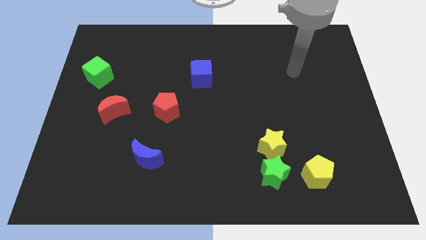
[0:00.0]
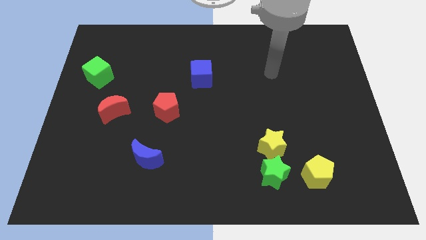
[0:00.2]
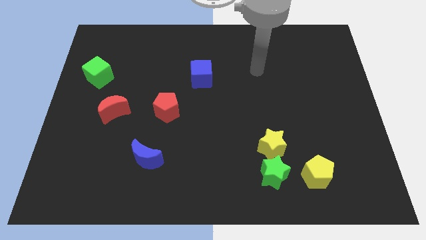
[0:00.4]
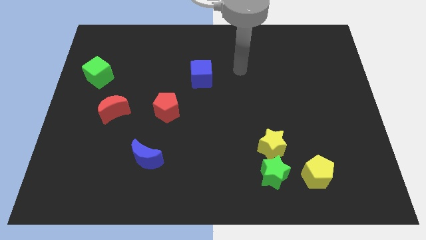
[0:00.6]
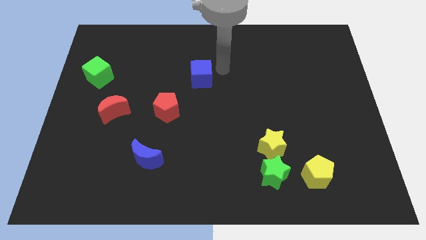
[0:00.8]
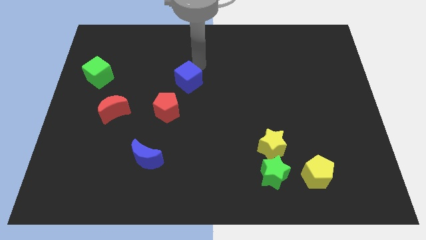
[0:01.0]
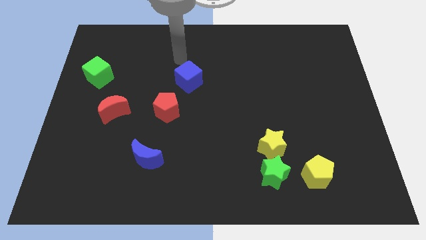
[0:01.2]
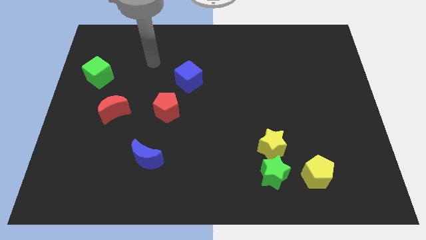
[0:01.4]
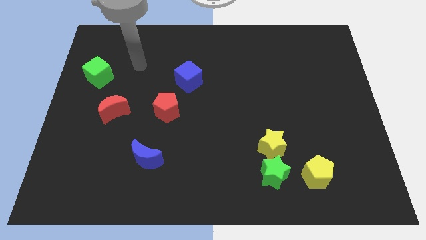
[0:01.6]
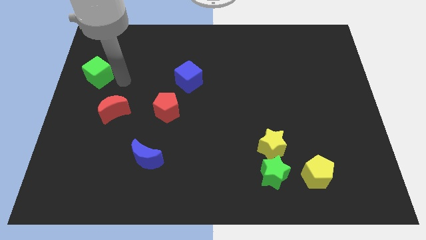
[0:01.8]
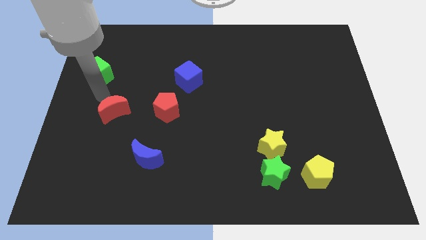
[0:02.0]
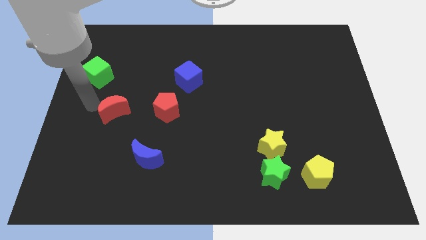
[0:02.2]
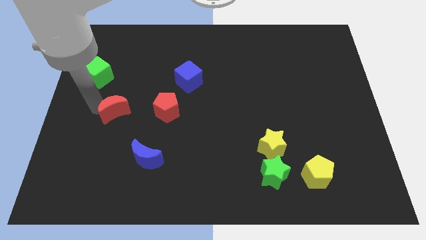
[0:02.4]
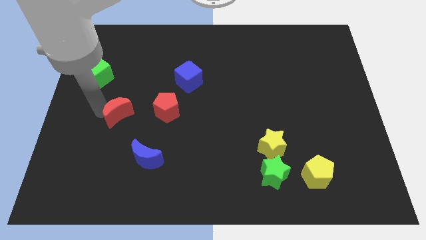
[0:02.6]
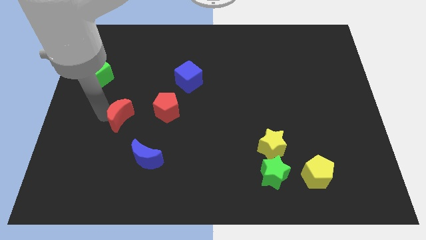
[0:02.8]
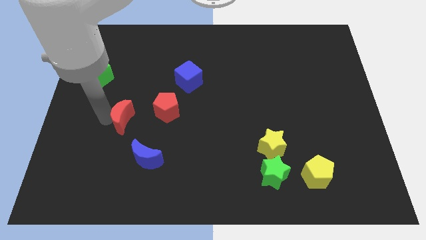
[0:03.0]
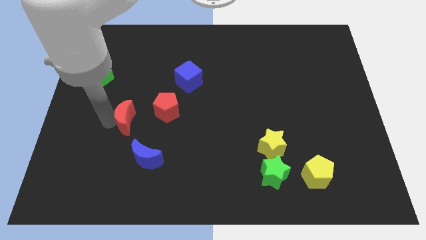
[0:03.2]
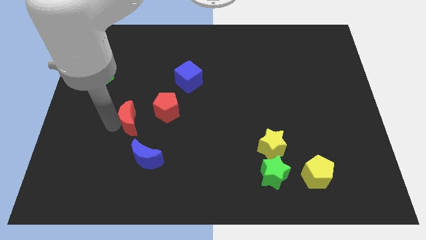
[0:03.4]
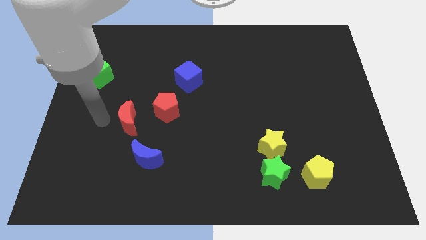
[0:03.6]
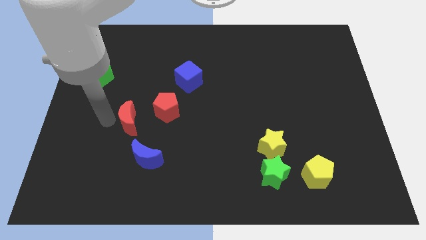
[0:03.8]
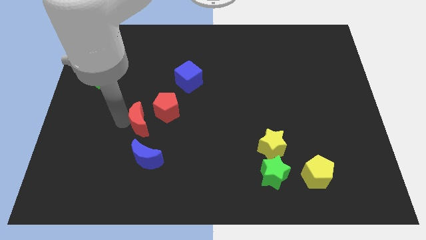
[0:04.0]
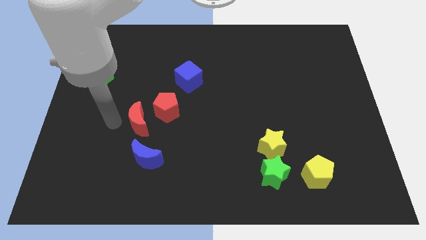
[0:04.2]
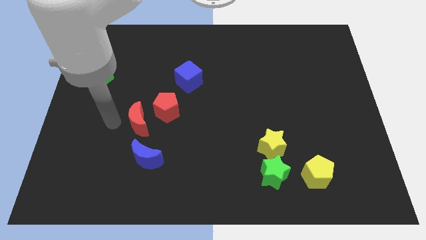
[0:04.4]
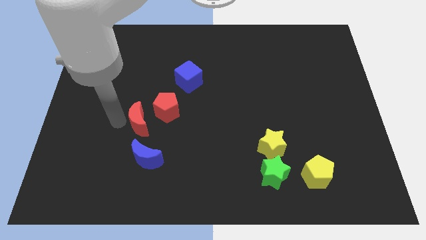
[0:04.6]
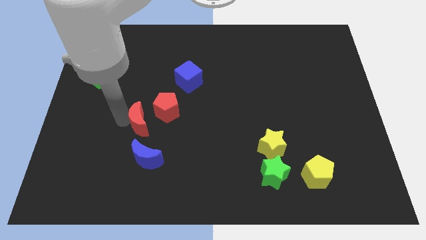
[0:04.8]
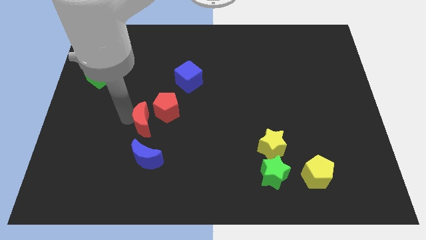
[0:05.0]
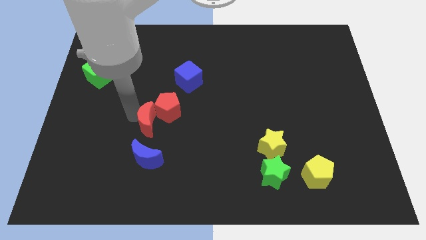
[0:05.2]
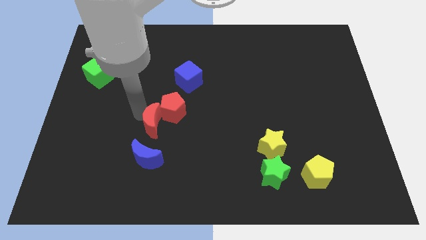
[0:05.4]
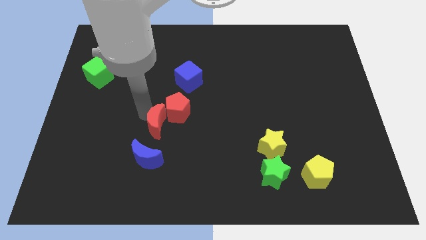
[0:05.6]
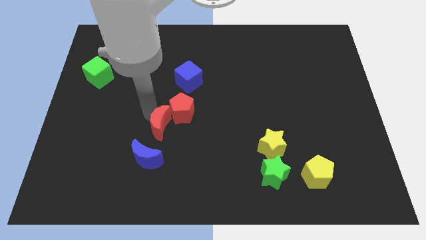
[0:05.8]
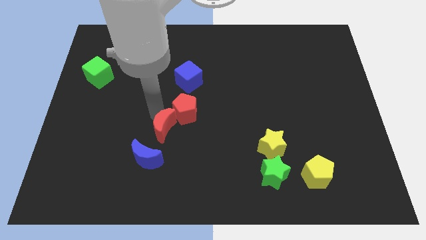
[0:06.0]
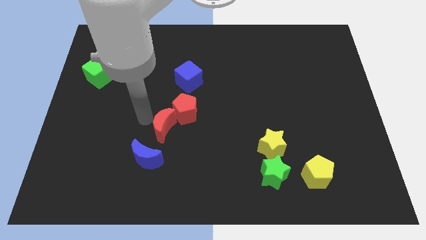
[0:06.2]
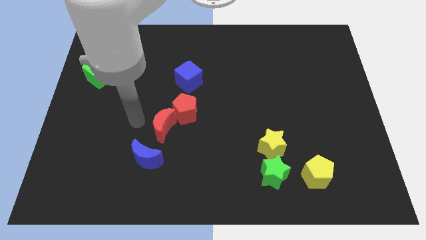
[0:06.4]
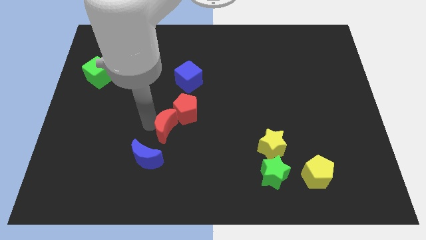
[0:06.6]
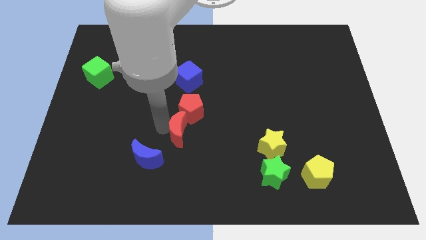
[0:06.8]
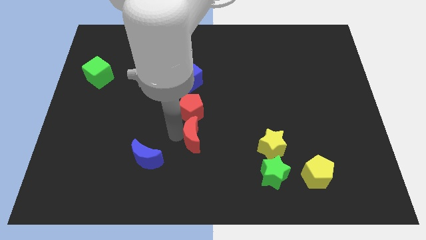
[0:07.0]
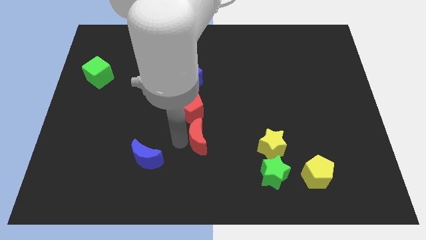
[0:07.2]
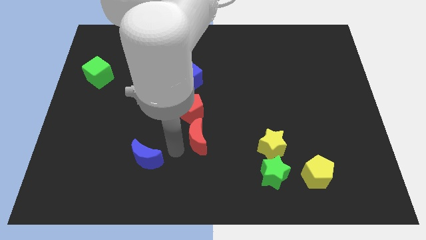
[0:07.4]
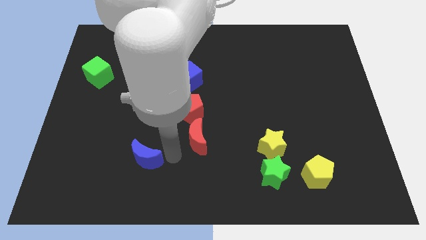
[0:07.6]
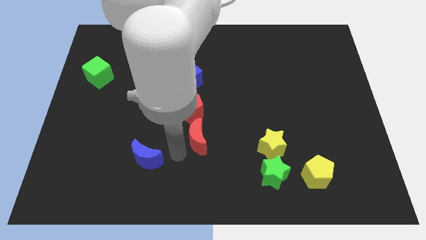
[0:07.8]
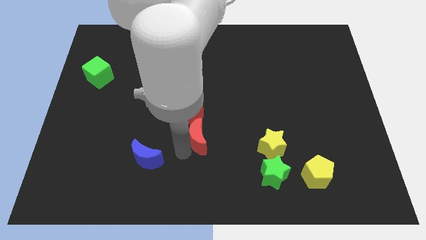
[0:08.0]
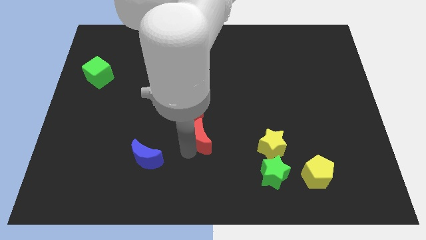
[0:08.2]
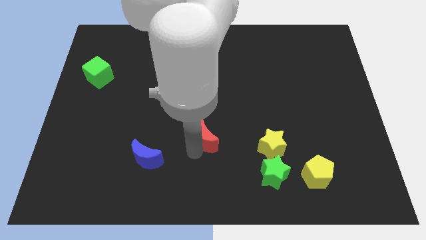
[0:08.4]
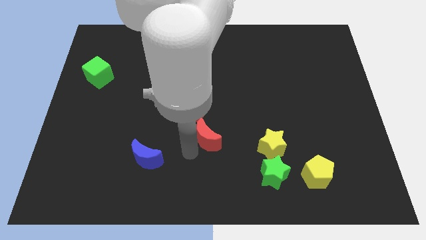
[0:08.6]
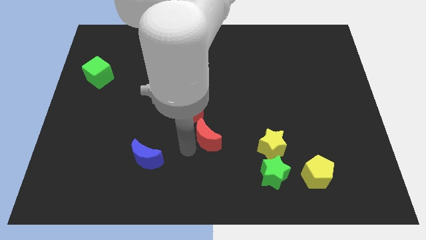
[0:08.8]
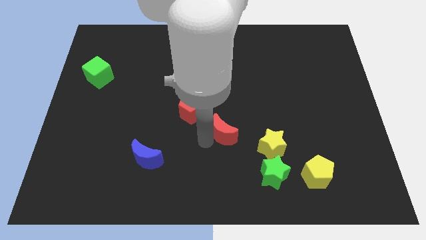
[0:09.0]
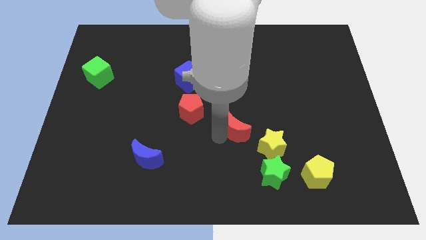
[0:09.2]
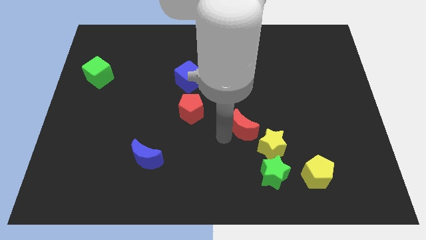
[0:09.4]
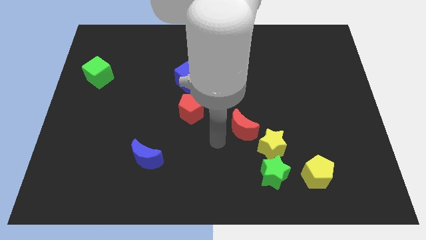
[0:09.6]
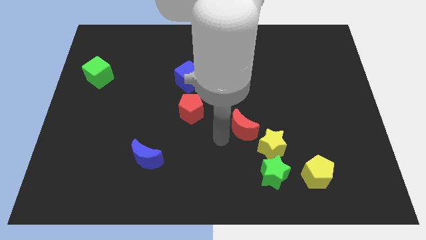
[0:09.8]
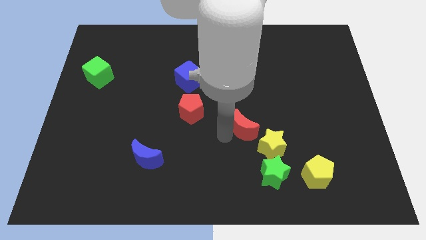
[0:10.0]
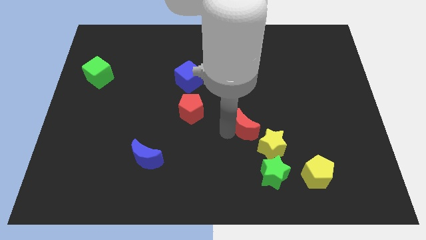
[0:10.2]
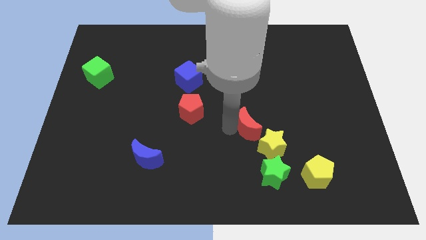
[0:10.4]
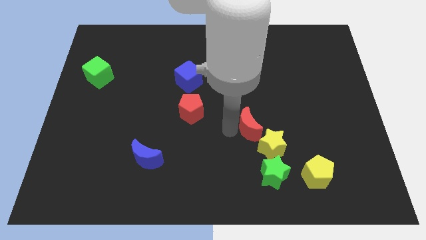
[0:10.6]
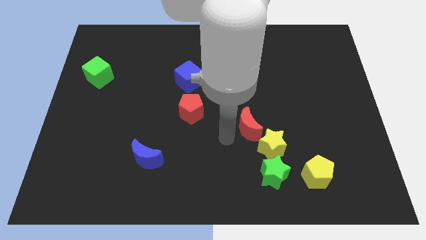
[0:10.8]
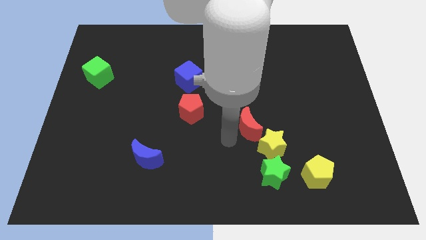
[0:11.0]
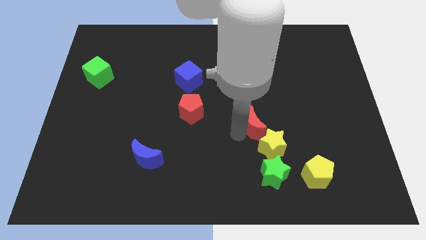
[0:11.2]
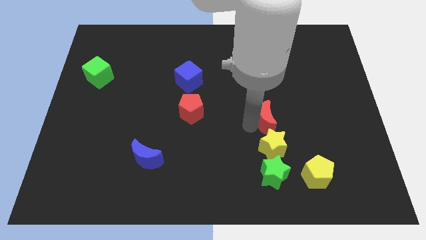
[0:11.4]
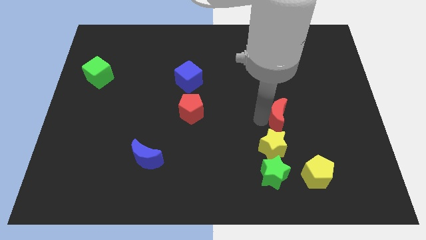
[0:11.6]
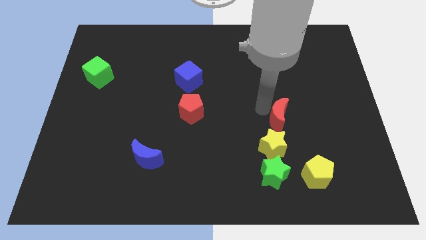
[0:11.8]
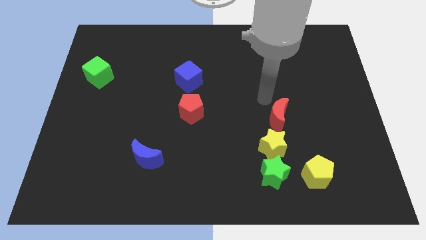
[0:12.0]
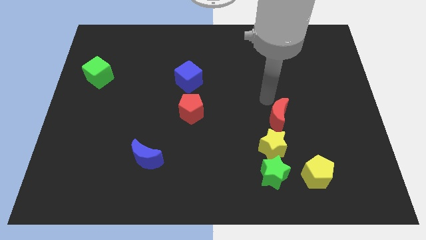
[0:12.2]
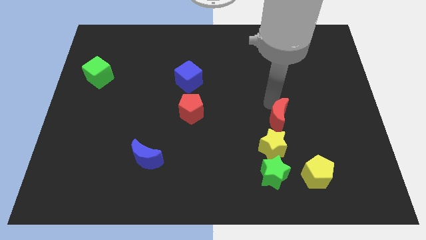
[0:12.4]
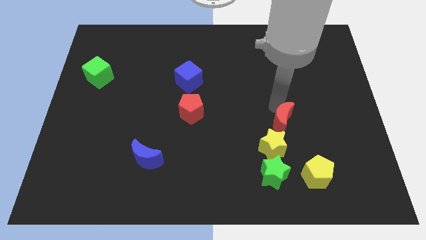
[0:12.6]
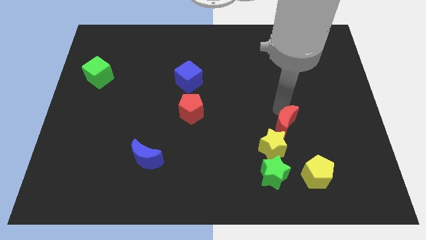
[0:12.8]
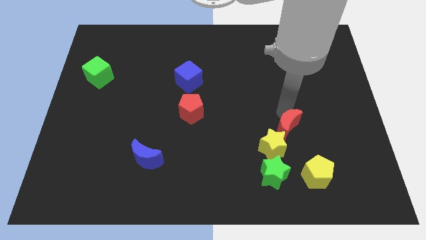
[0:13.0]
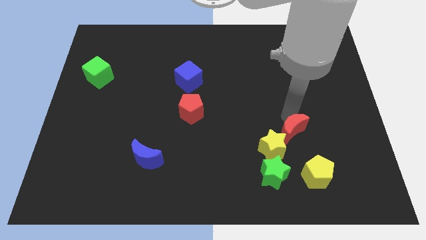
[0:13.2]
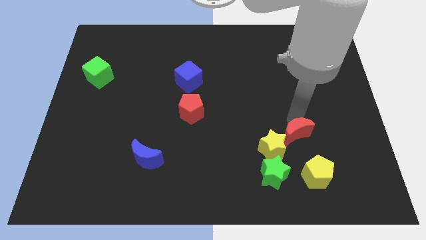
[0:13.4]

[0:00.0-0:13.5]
put the red moon to the top right of the green star

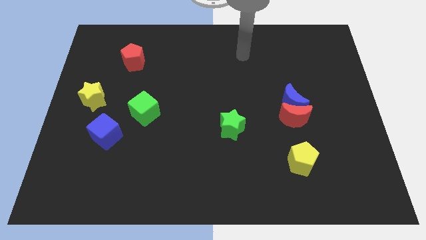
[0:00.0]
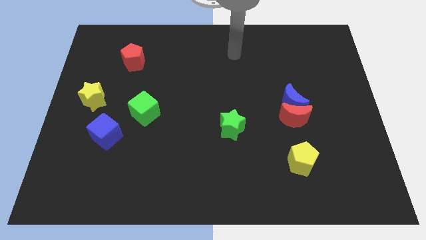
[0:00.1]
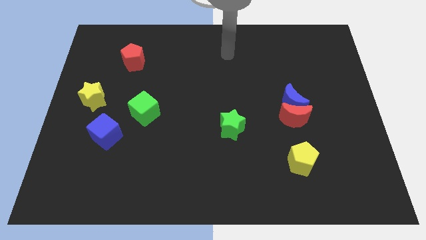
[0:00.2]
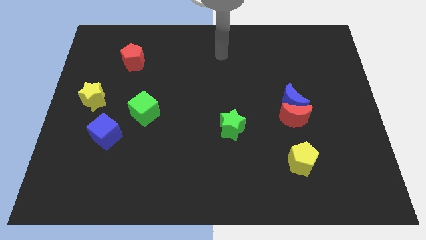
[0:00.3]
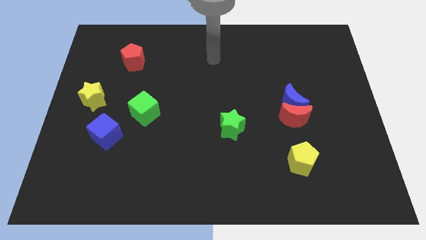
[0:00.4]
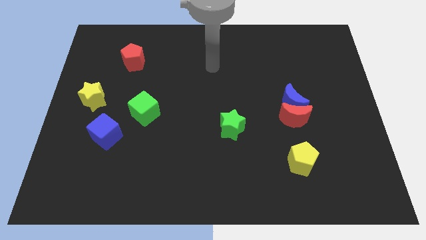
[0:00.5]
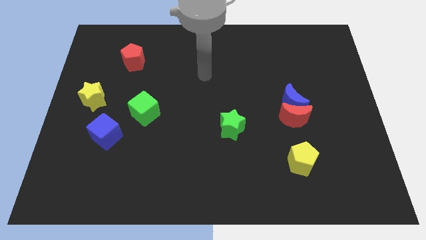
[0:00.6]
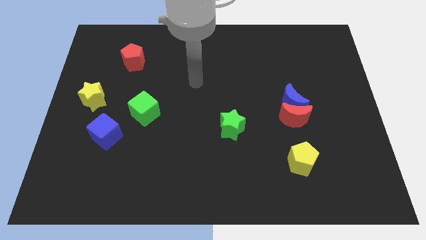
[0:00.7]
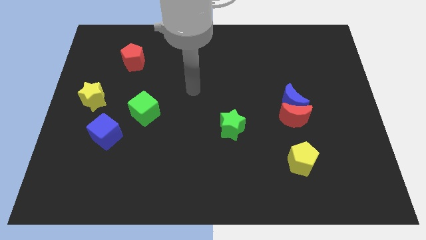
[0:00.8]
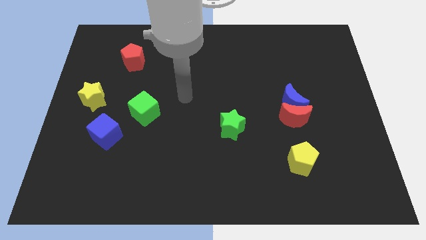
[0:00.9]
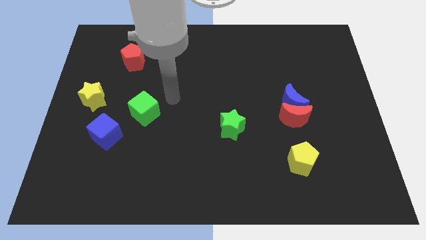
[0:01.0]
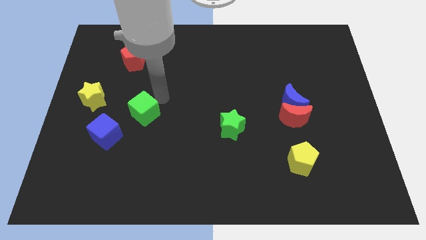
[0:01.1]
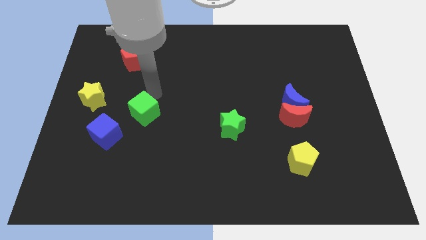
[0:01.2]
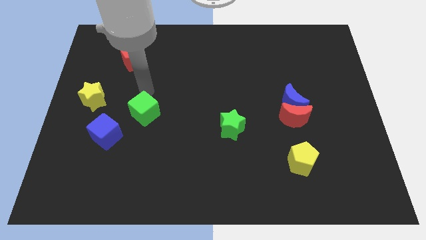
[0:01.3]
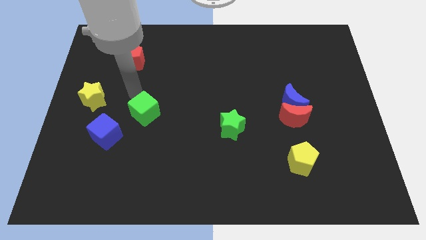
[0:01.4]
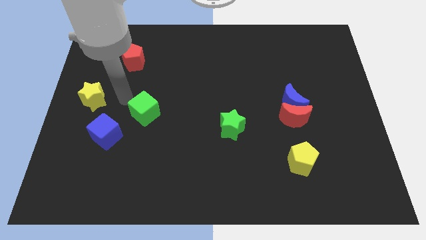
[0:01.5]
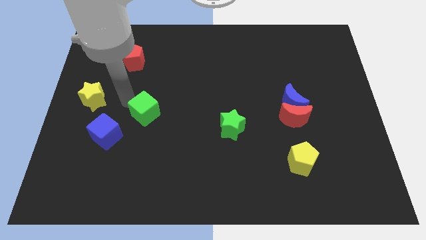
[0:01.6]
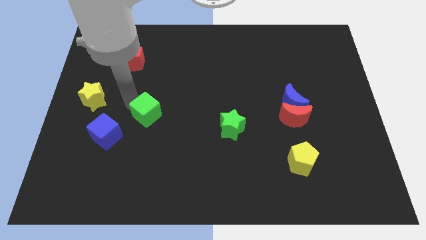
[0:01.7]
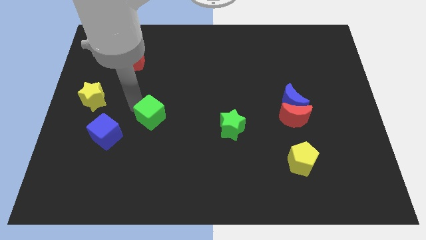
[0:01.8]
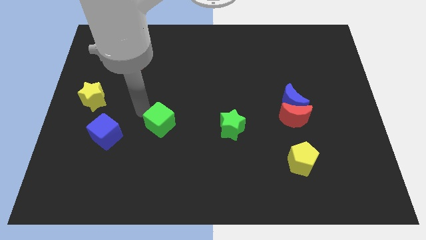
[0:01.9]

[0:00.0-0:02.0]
push the green cube just left of the green star
